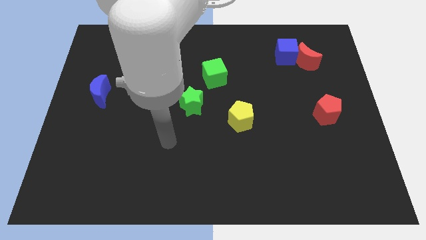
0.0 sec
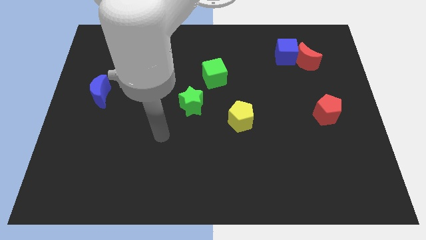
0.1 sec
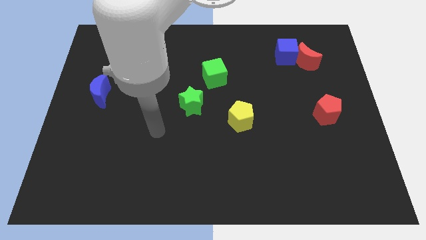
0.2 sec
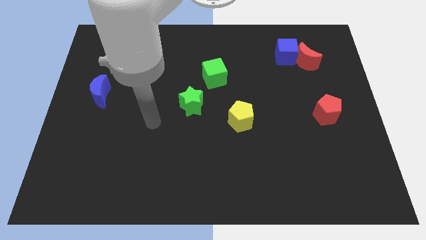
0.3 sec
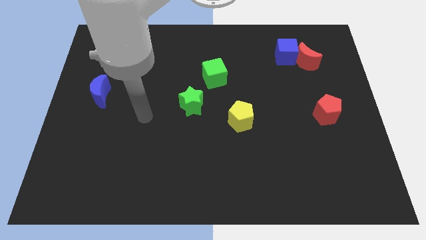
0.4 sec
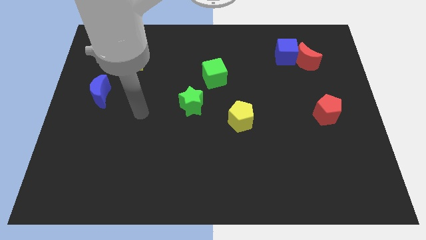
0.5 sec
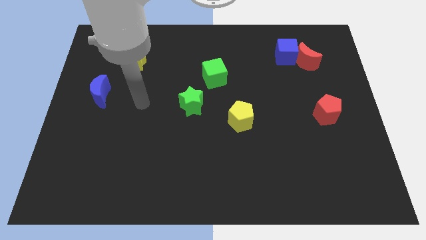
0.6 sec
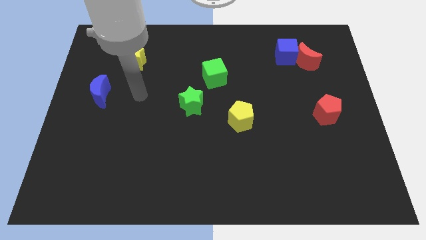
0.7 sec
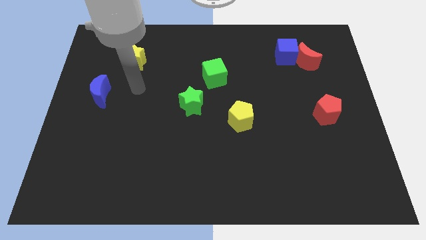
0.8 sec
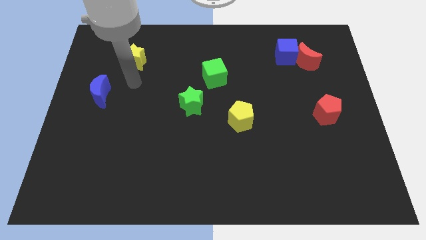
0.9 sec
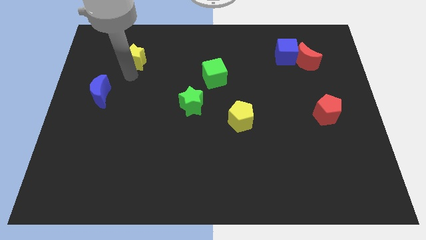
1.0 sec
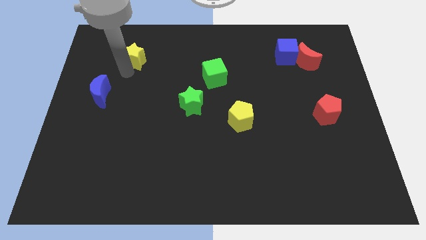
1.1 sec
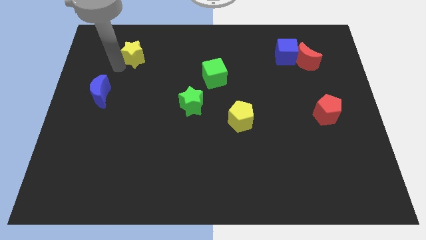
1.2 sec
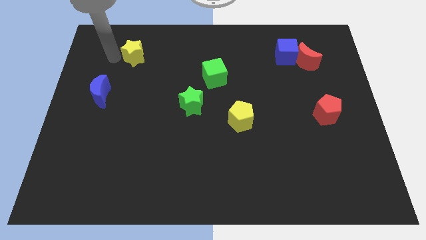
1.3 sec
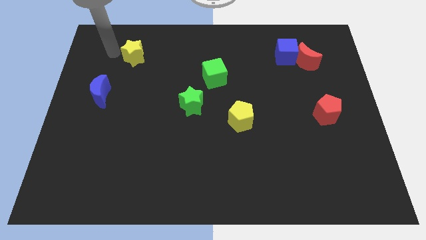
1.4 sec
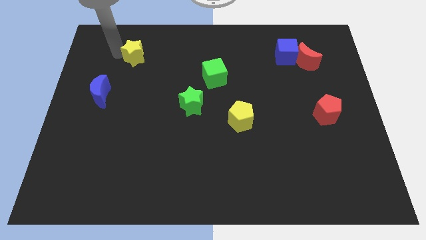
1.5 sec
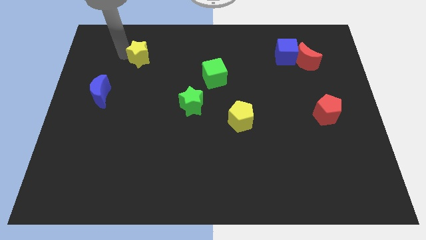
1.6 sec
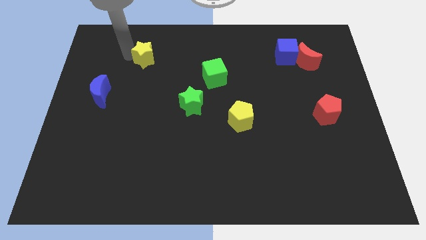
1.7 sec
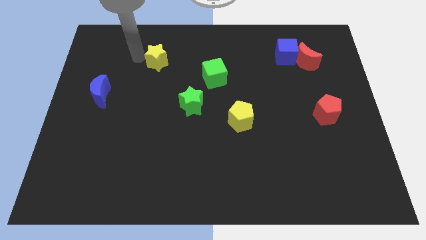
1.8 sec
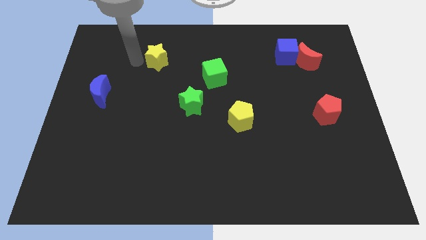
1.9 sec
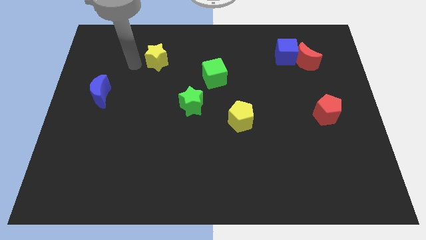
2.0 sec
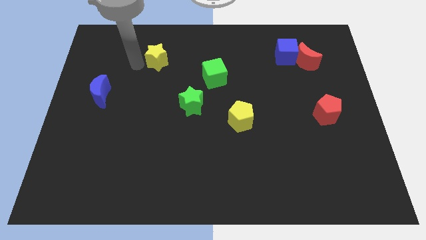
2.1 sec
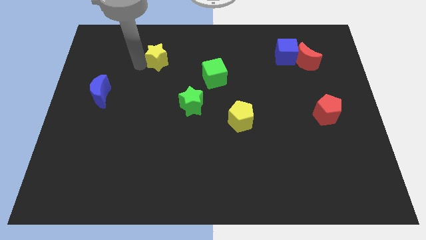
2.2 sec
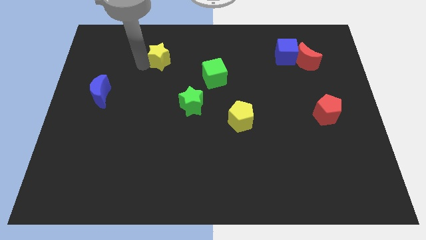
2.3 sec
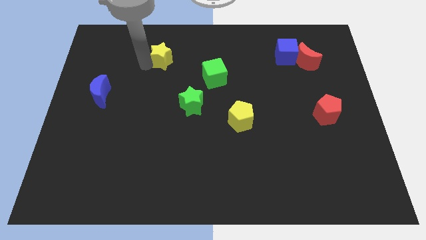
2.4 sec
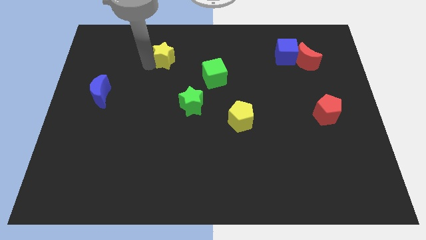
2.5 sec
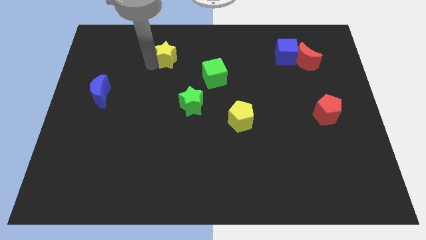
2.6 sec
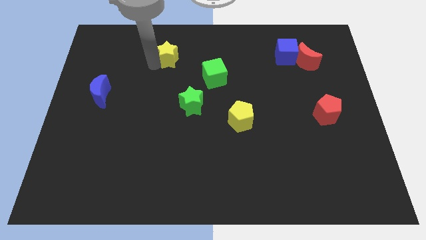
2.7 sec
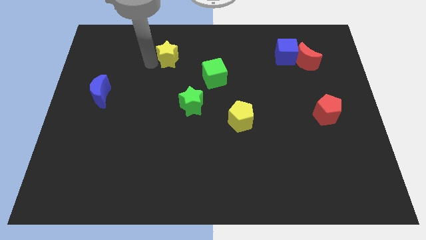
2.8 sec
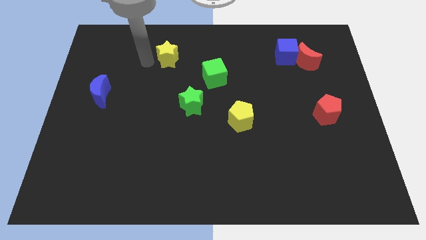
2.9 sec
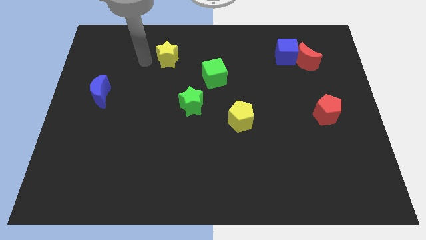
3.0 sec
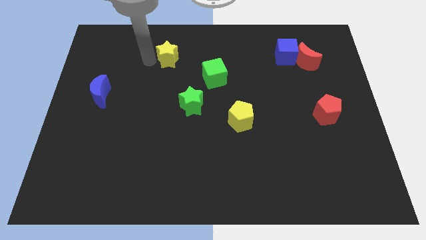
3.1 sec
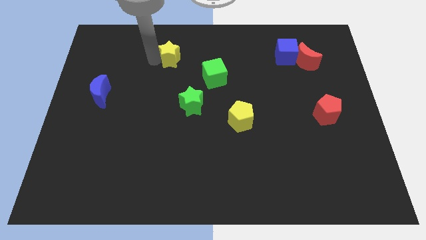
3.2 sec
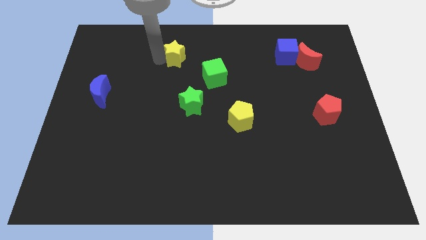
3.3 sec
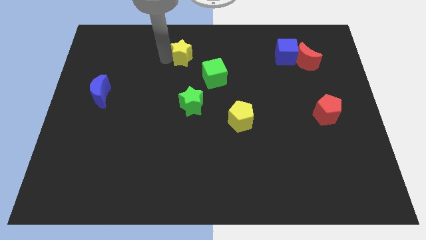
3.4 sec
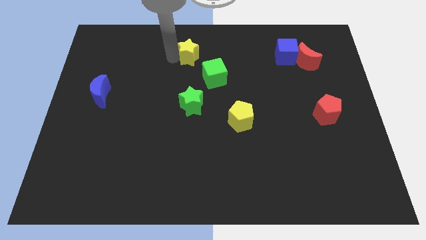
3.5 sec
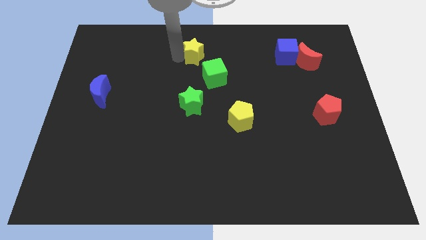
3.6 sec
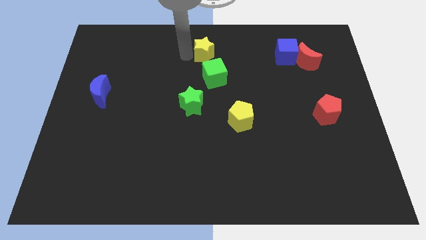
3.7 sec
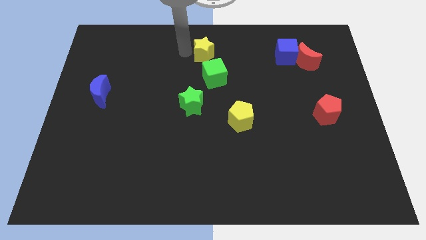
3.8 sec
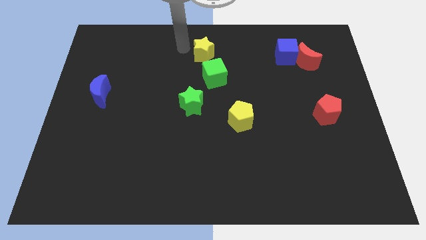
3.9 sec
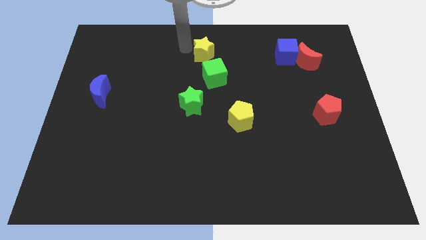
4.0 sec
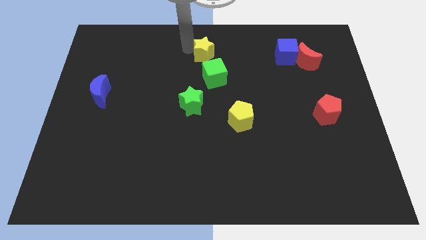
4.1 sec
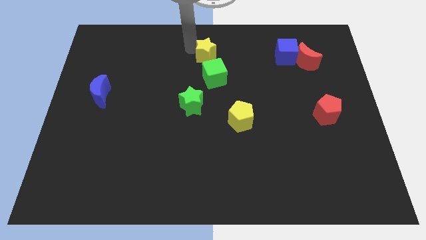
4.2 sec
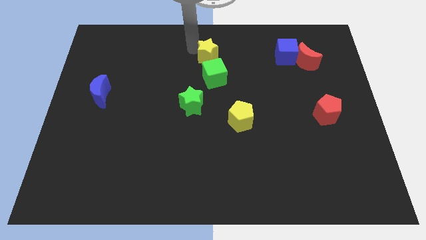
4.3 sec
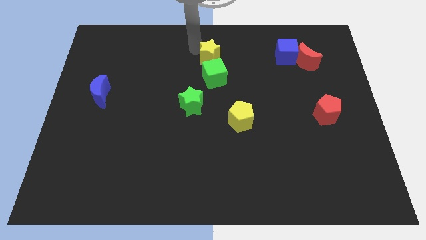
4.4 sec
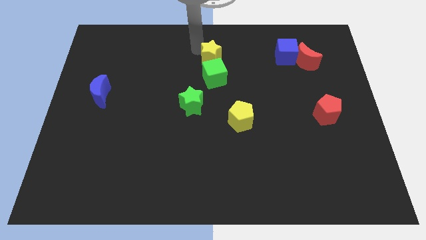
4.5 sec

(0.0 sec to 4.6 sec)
move the yellow star right

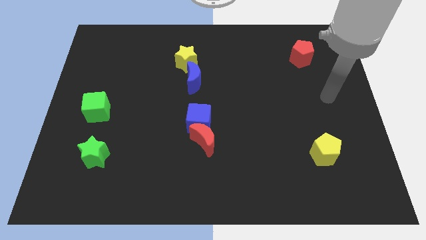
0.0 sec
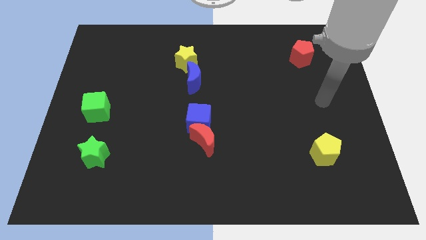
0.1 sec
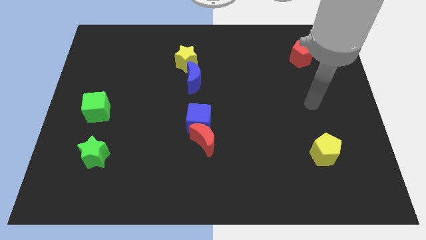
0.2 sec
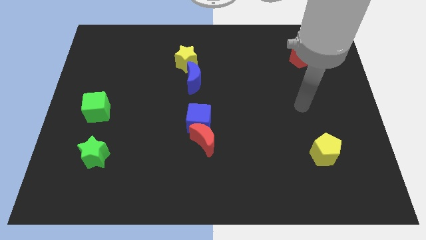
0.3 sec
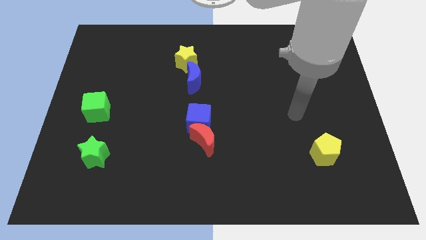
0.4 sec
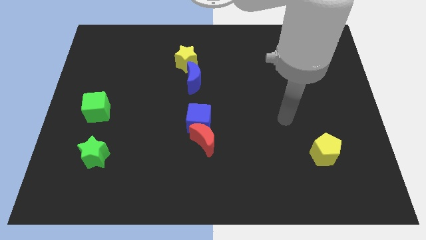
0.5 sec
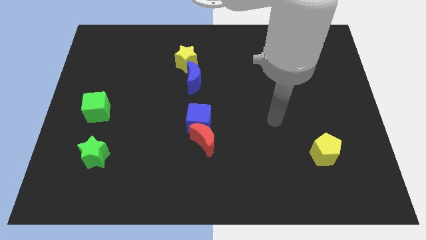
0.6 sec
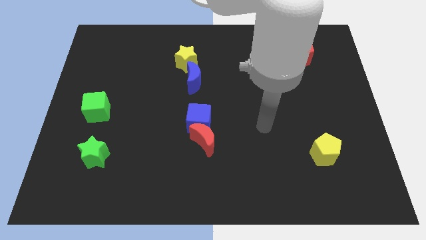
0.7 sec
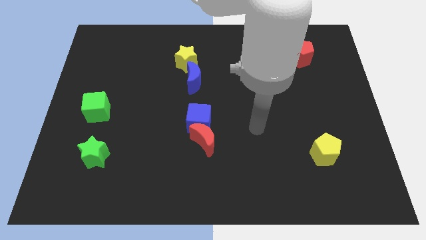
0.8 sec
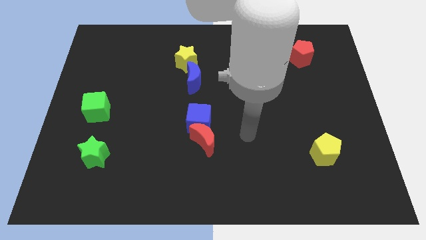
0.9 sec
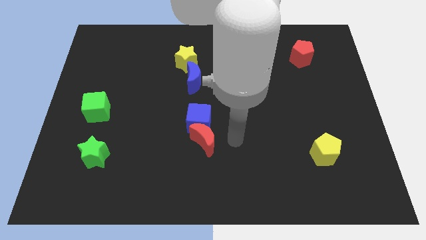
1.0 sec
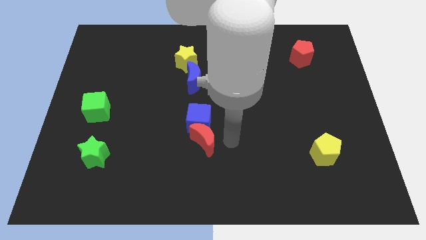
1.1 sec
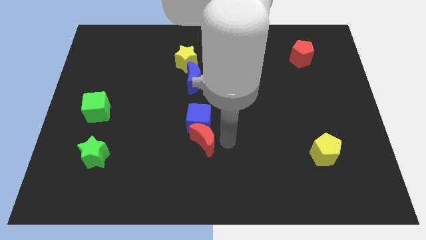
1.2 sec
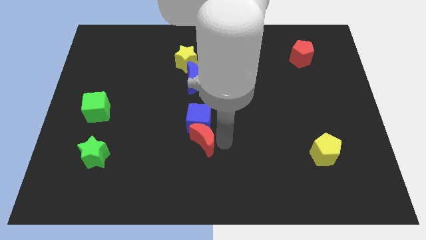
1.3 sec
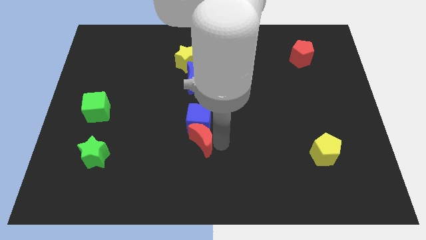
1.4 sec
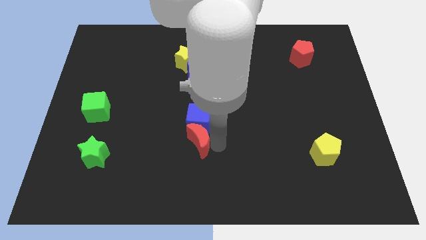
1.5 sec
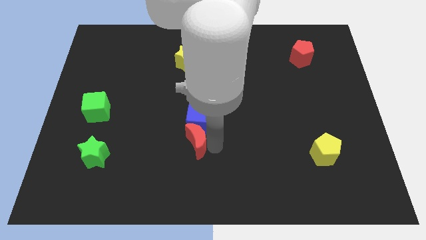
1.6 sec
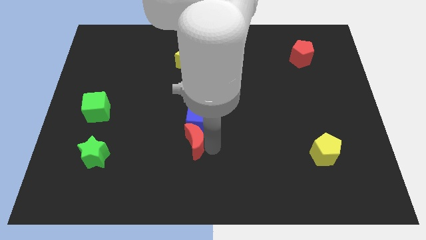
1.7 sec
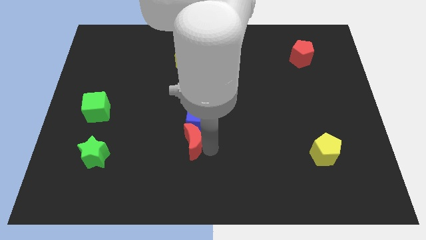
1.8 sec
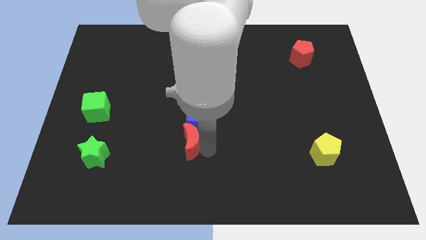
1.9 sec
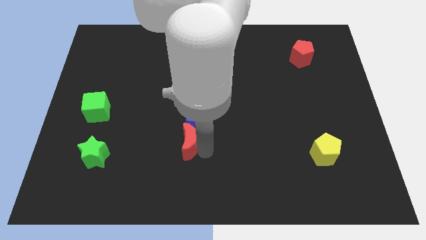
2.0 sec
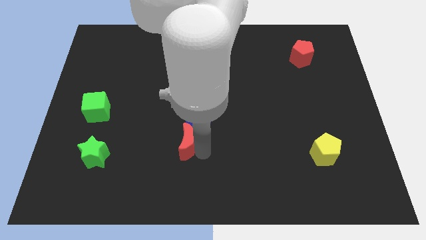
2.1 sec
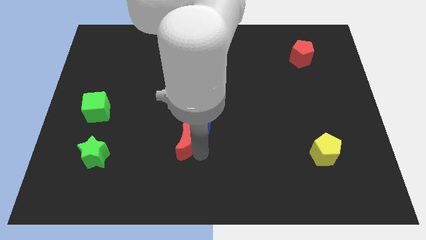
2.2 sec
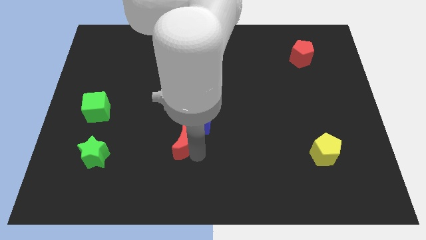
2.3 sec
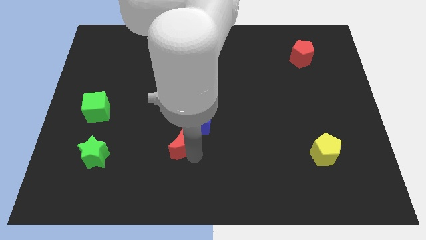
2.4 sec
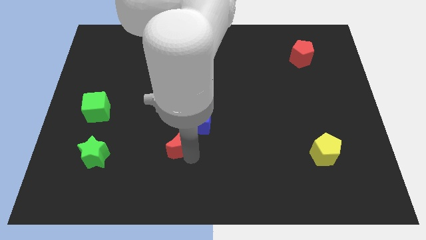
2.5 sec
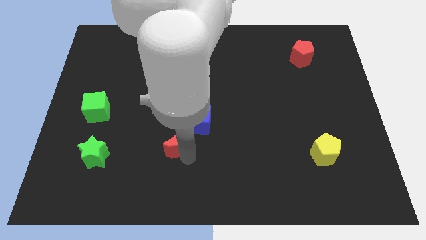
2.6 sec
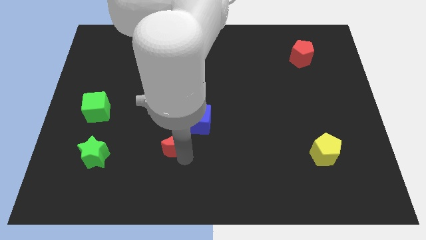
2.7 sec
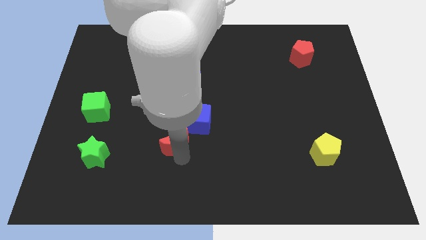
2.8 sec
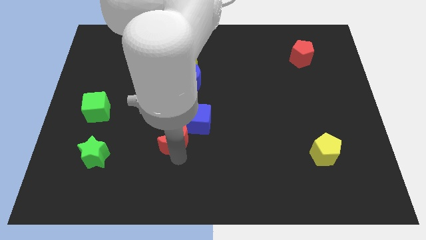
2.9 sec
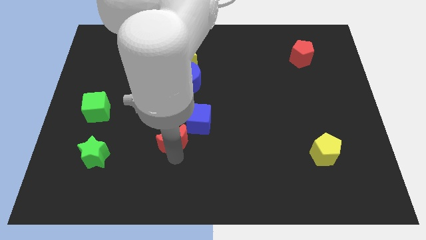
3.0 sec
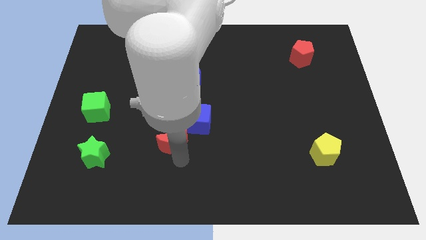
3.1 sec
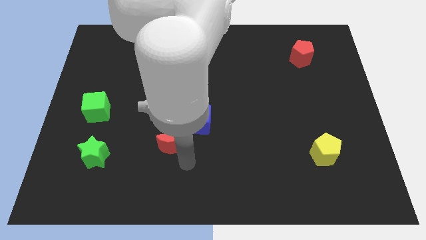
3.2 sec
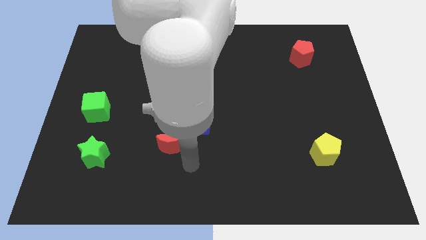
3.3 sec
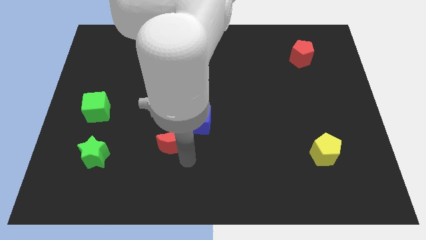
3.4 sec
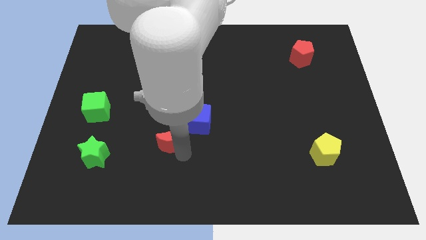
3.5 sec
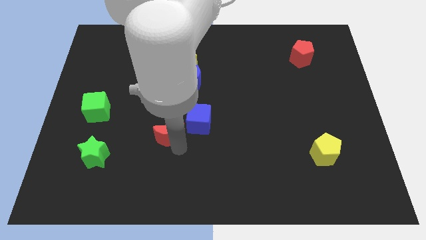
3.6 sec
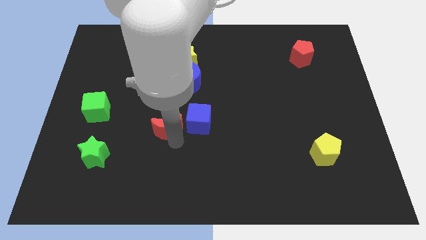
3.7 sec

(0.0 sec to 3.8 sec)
slightly slide the red moon upwards and then to the left
